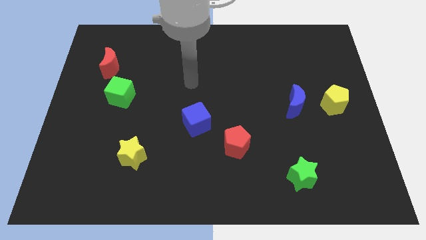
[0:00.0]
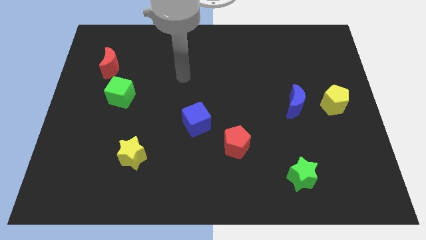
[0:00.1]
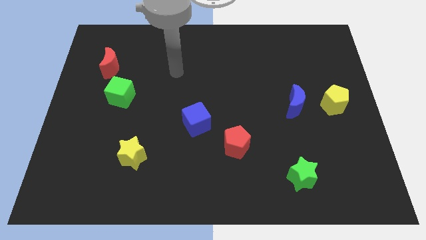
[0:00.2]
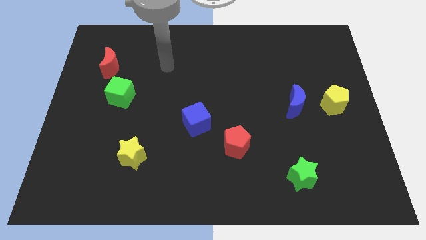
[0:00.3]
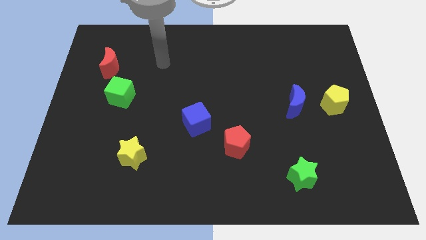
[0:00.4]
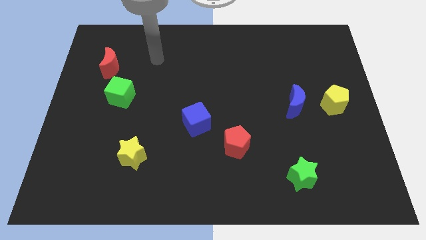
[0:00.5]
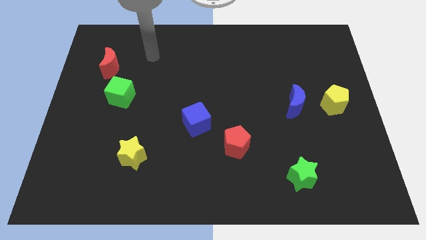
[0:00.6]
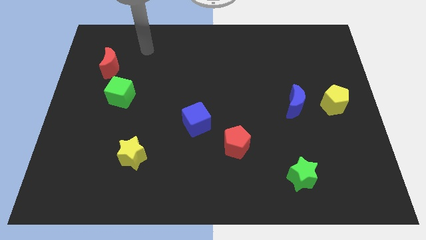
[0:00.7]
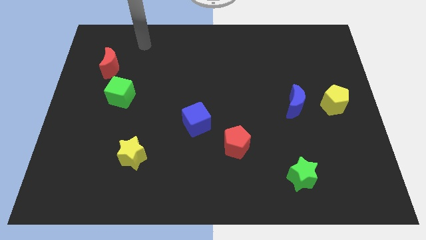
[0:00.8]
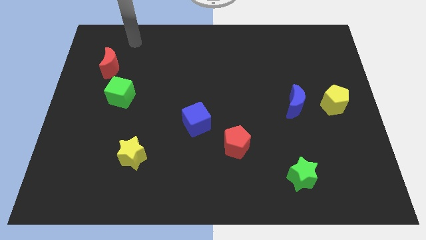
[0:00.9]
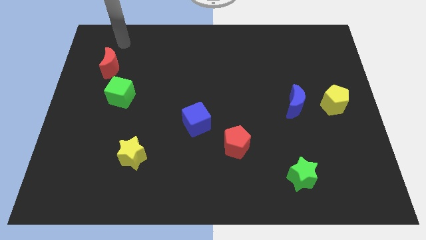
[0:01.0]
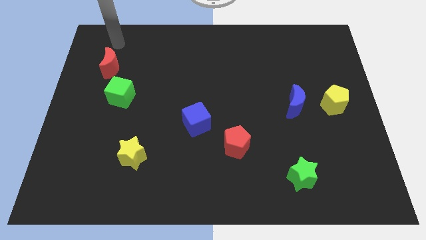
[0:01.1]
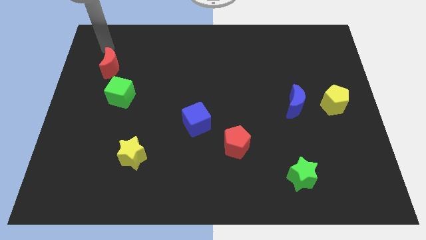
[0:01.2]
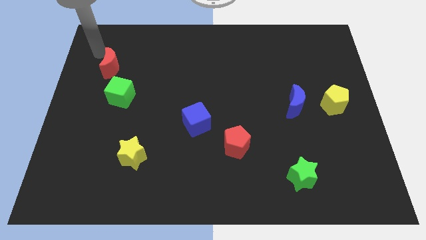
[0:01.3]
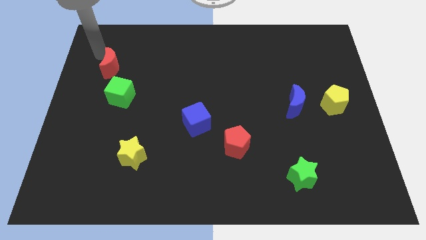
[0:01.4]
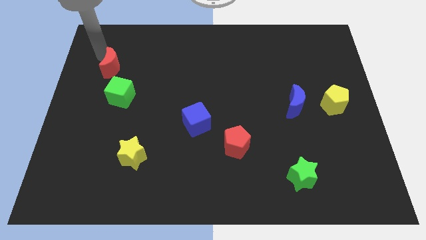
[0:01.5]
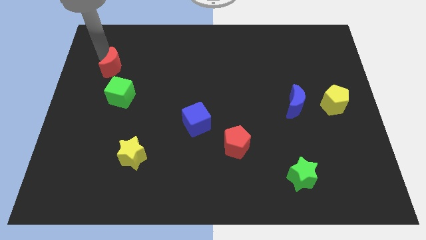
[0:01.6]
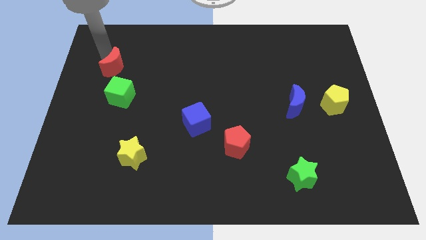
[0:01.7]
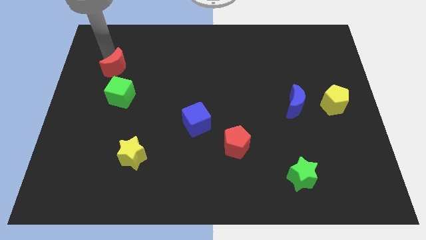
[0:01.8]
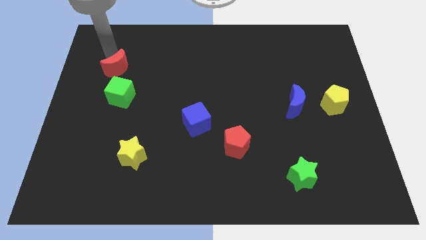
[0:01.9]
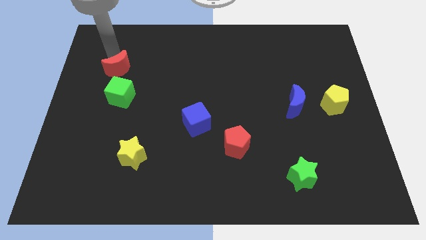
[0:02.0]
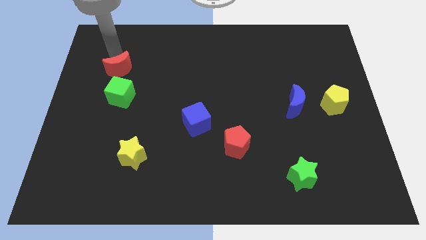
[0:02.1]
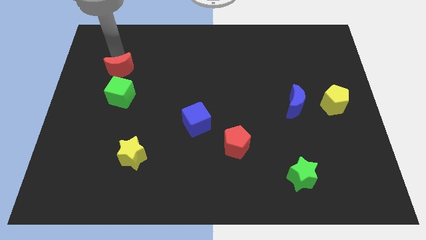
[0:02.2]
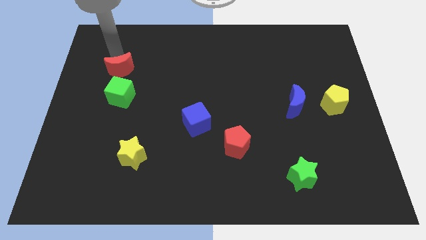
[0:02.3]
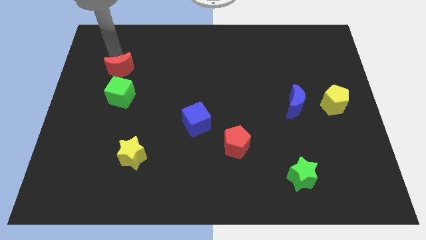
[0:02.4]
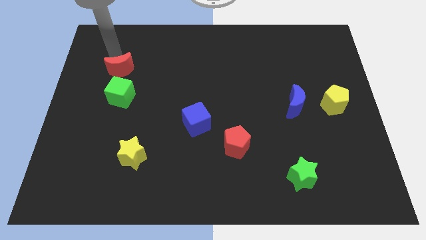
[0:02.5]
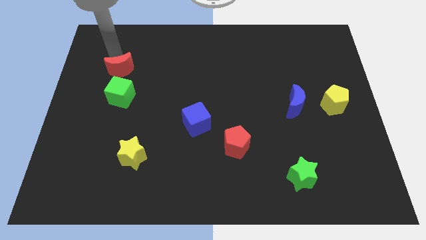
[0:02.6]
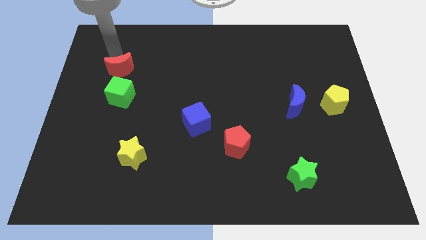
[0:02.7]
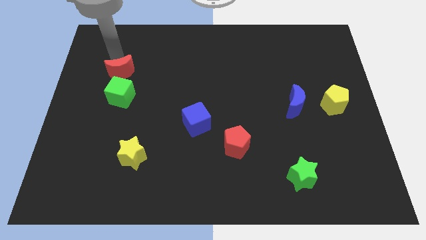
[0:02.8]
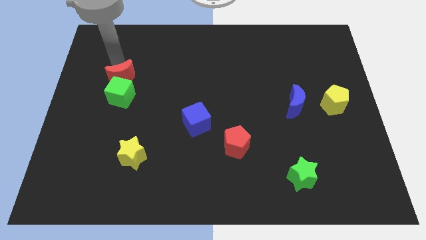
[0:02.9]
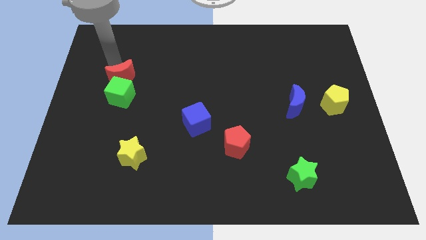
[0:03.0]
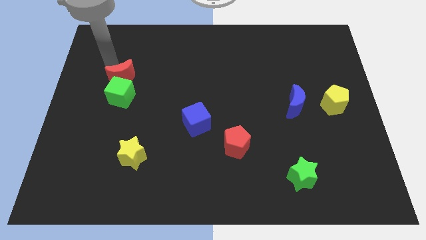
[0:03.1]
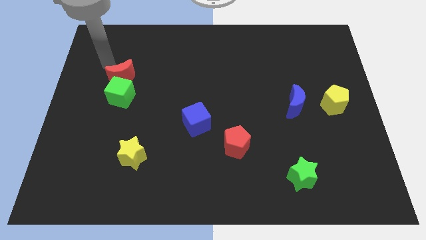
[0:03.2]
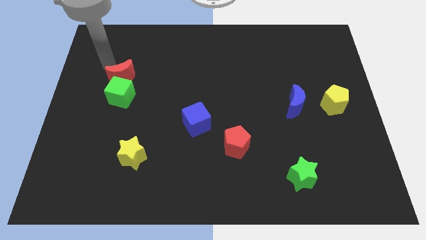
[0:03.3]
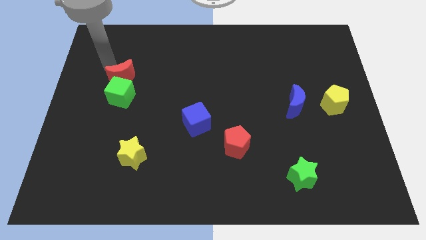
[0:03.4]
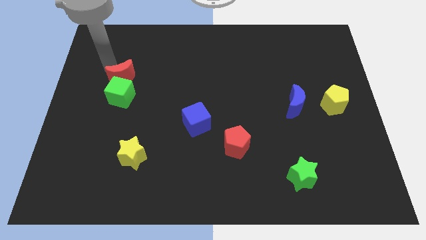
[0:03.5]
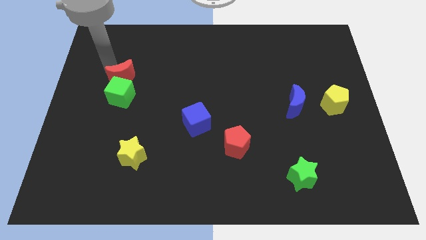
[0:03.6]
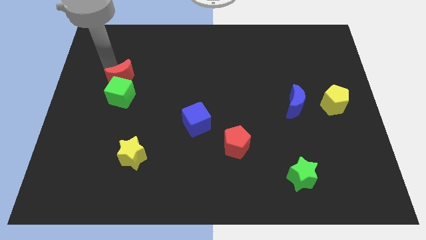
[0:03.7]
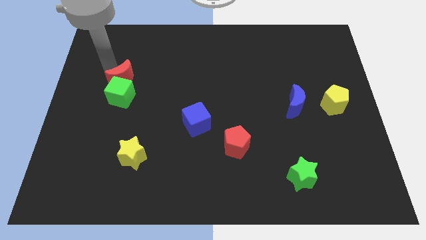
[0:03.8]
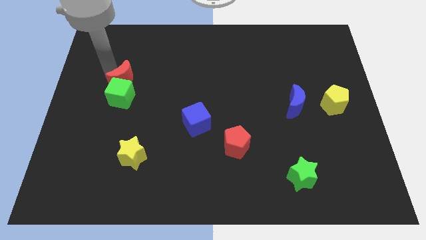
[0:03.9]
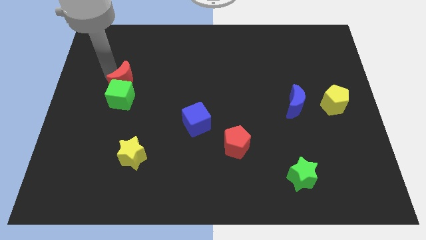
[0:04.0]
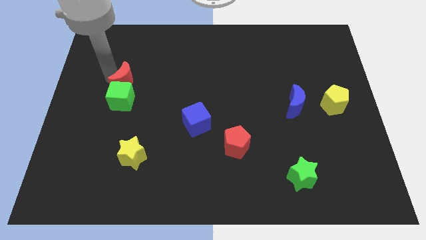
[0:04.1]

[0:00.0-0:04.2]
move the red moon down and to the right diagonally a bit

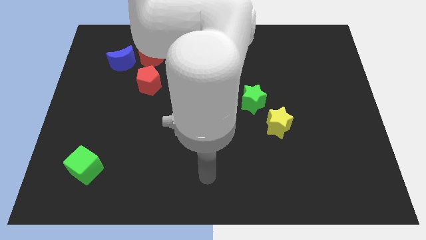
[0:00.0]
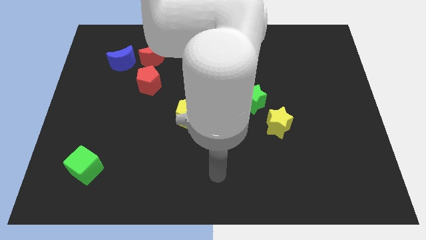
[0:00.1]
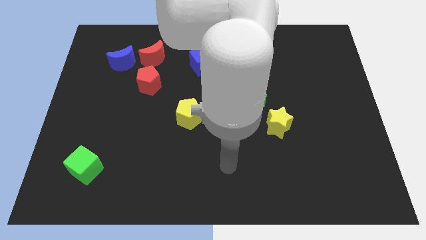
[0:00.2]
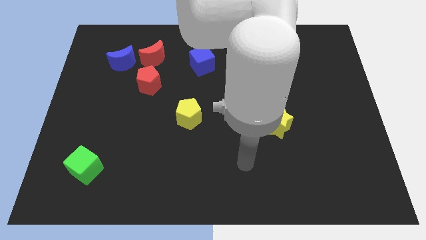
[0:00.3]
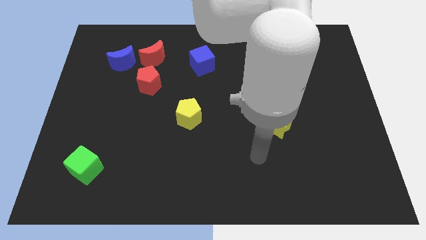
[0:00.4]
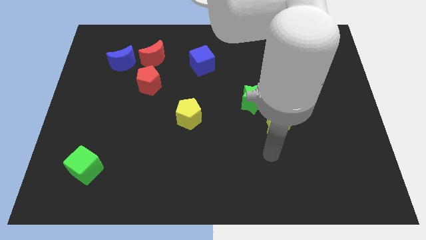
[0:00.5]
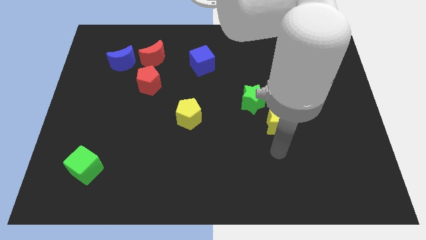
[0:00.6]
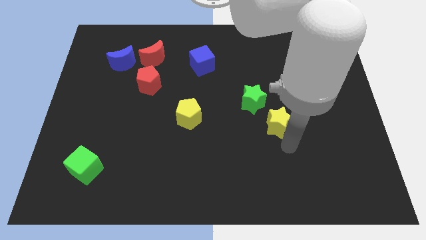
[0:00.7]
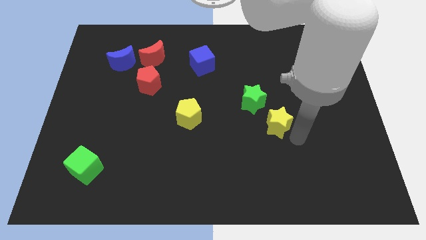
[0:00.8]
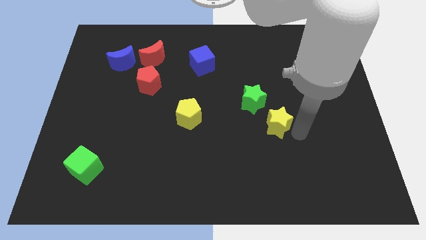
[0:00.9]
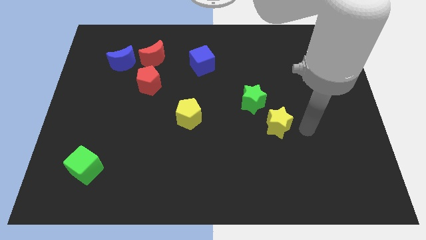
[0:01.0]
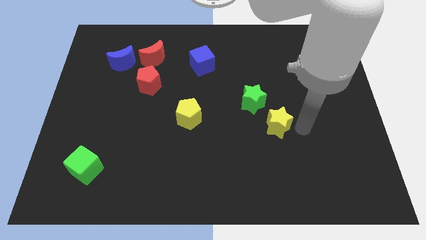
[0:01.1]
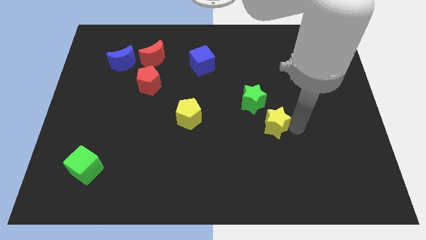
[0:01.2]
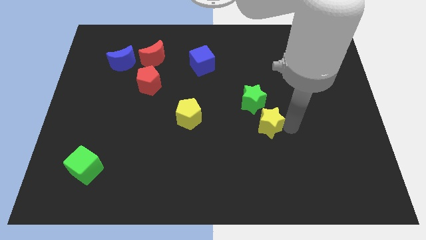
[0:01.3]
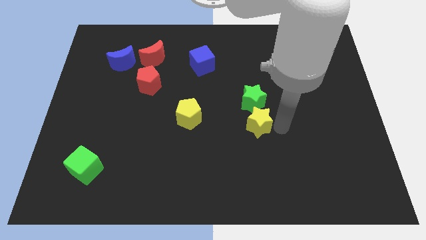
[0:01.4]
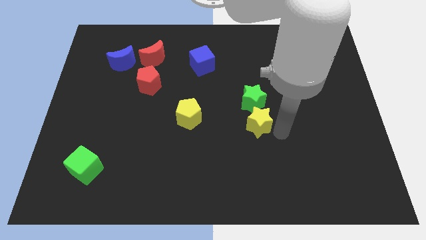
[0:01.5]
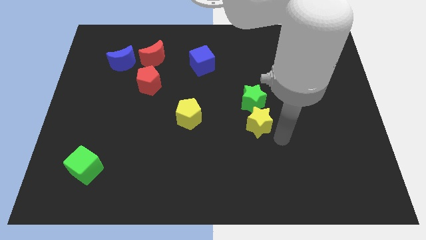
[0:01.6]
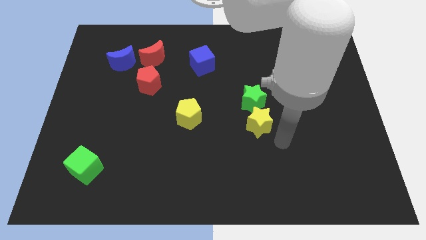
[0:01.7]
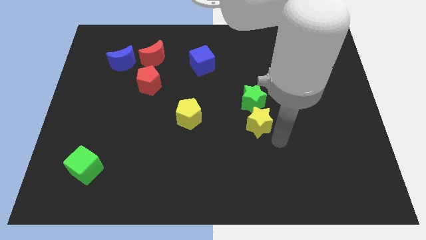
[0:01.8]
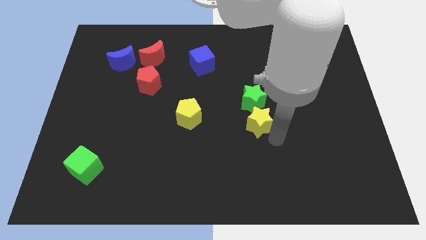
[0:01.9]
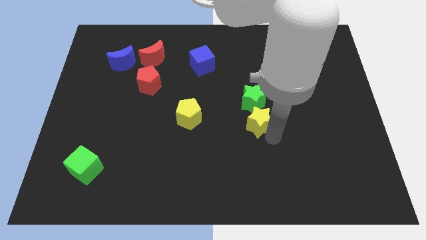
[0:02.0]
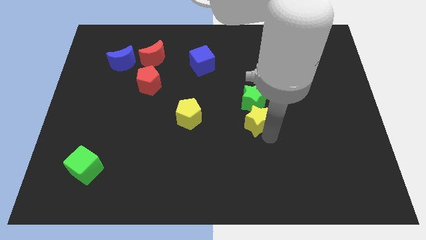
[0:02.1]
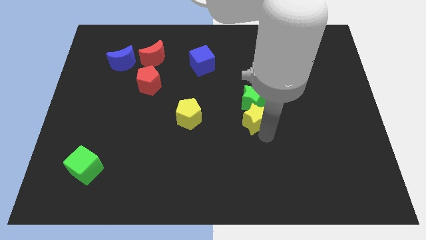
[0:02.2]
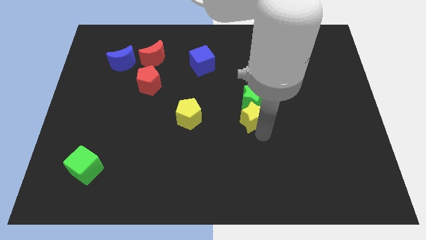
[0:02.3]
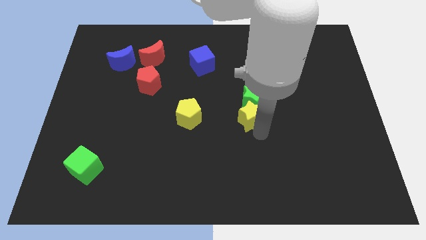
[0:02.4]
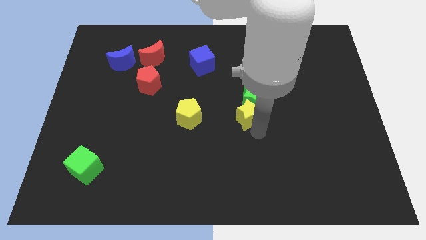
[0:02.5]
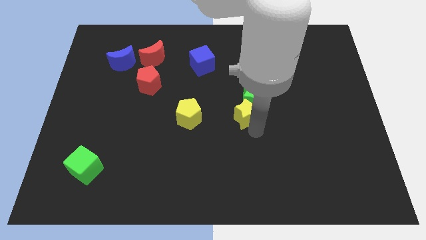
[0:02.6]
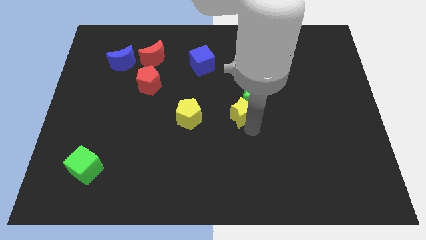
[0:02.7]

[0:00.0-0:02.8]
slide the yellow star a little diagonally upwards and left

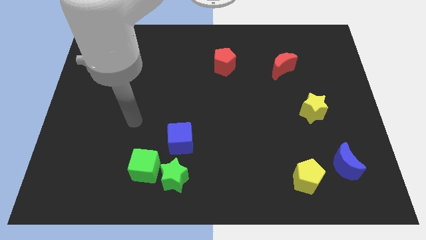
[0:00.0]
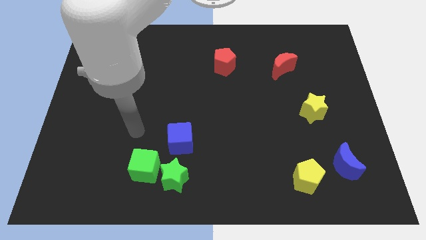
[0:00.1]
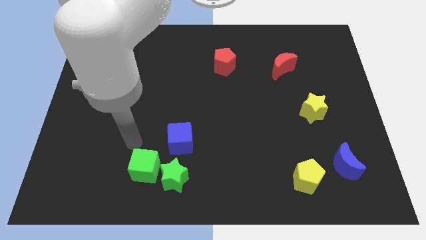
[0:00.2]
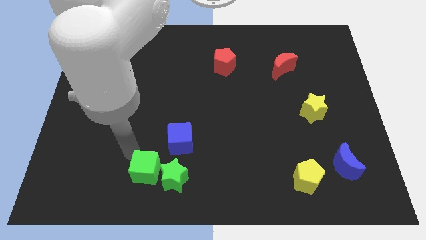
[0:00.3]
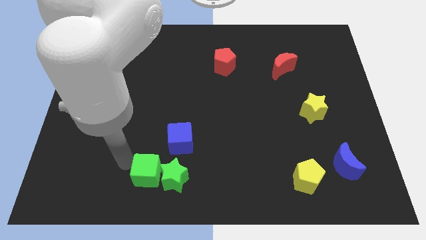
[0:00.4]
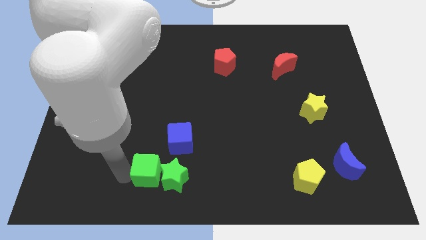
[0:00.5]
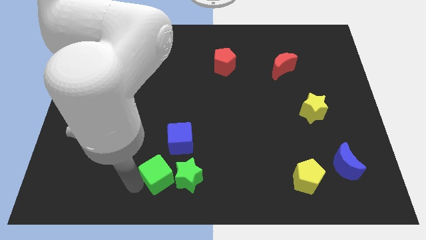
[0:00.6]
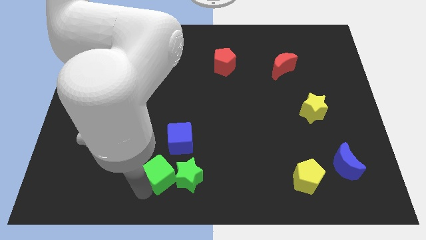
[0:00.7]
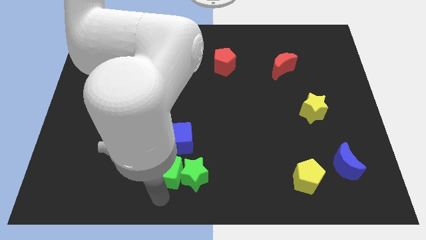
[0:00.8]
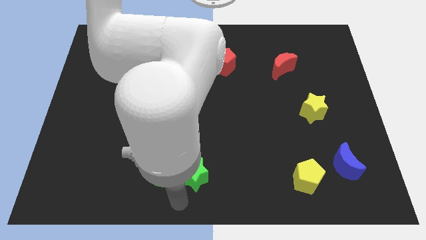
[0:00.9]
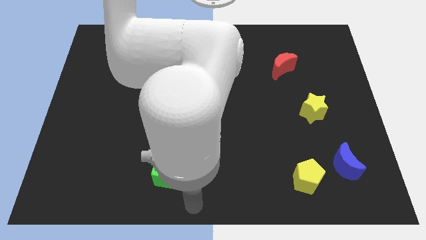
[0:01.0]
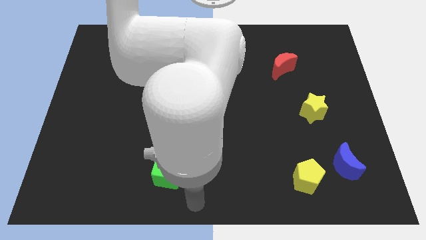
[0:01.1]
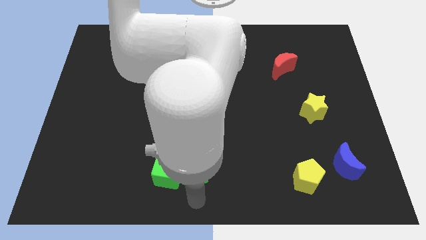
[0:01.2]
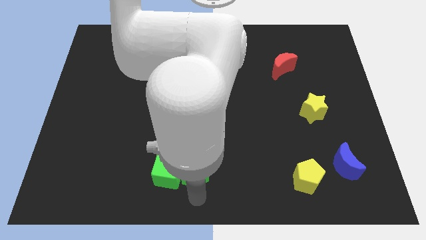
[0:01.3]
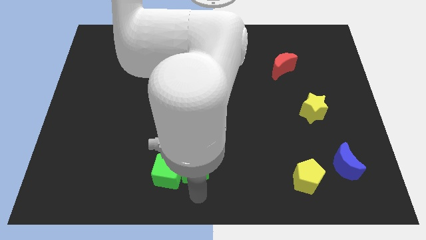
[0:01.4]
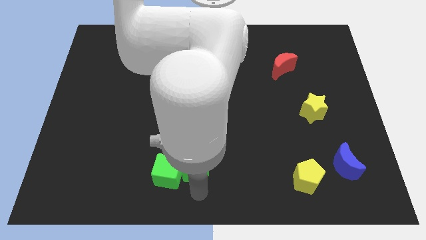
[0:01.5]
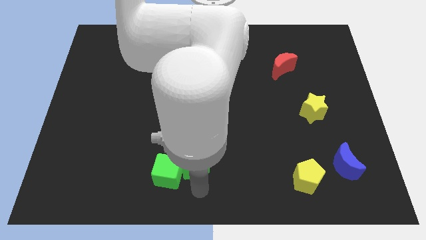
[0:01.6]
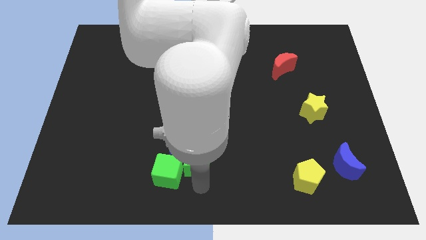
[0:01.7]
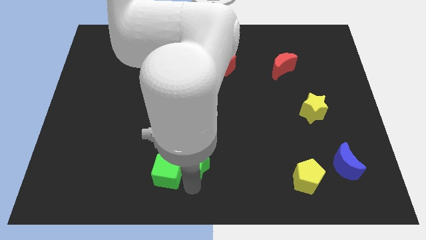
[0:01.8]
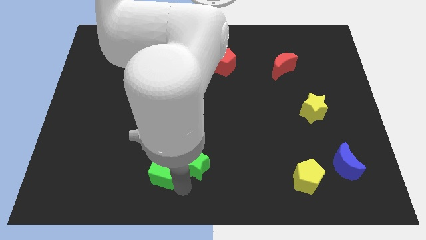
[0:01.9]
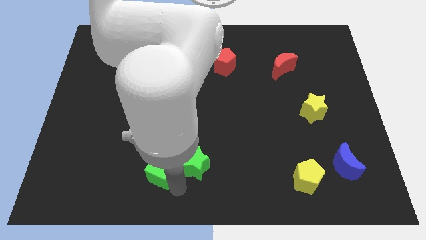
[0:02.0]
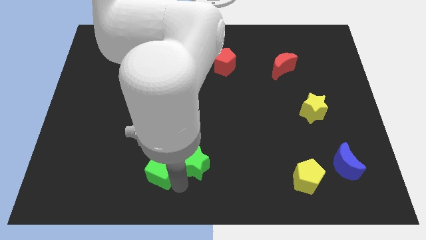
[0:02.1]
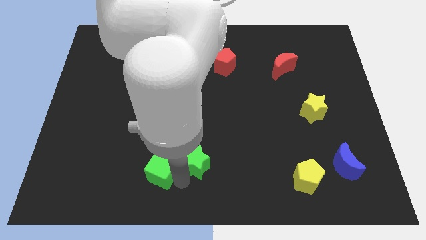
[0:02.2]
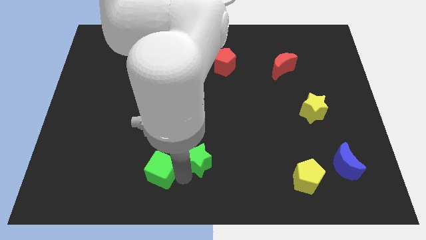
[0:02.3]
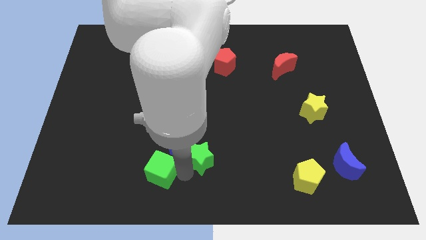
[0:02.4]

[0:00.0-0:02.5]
slightly push the green star up and then right
